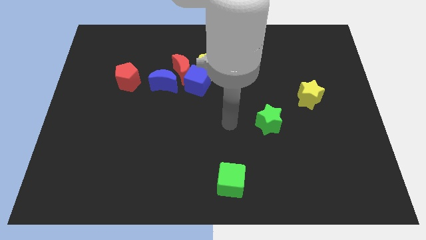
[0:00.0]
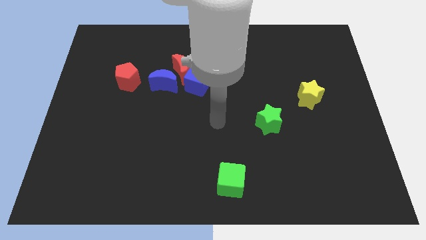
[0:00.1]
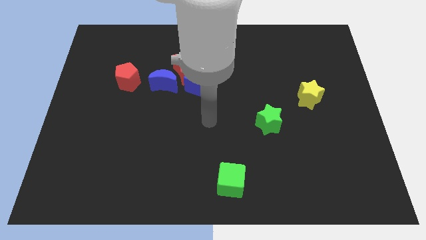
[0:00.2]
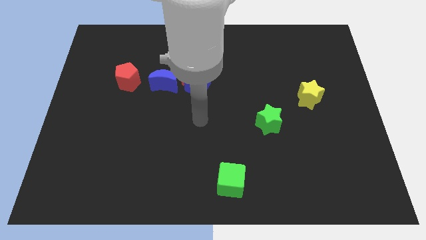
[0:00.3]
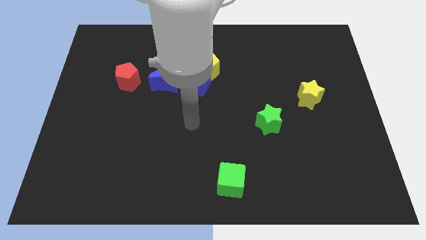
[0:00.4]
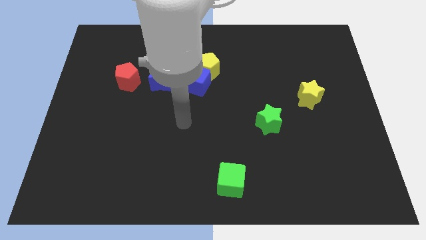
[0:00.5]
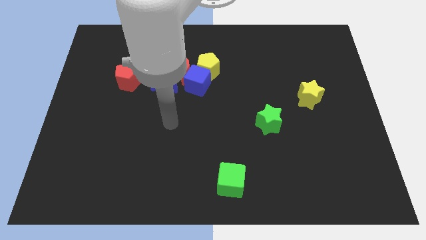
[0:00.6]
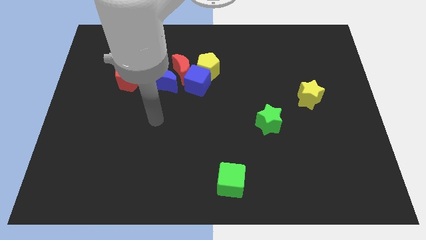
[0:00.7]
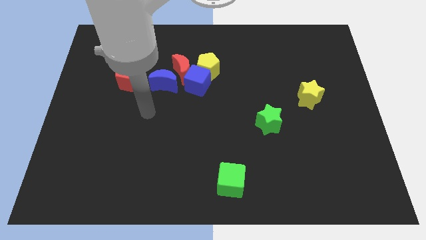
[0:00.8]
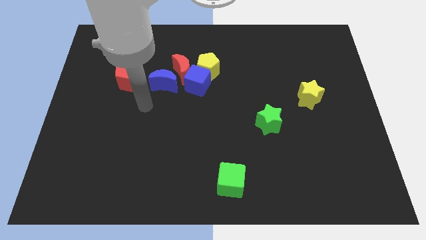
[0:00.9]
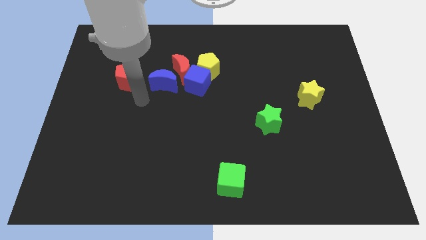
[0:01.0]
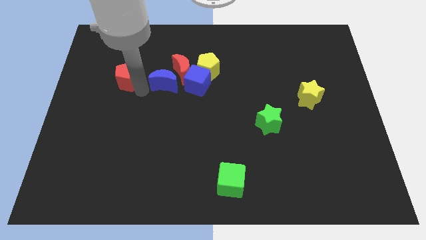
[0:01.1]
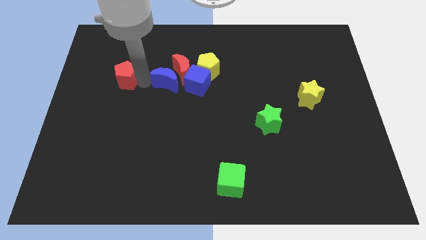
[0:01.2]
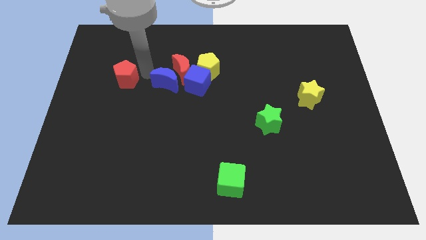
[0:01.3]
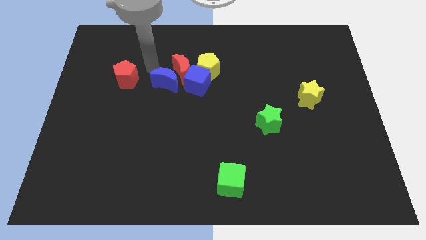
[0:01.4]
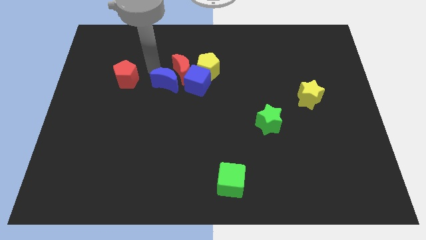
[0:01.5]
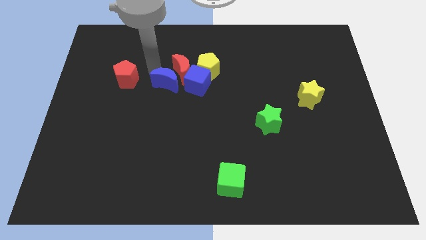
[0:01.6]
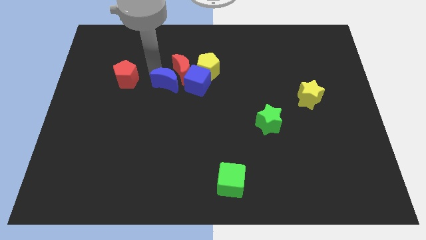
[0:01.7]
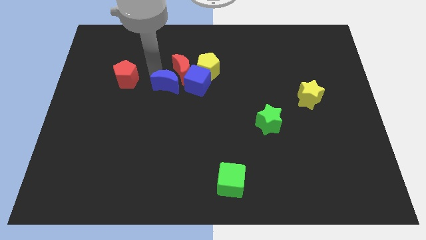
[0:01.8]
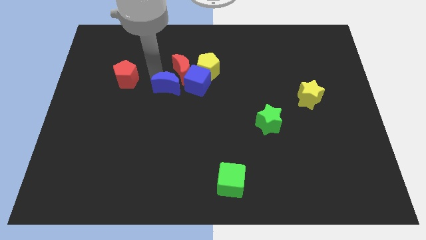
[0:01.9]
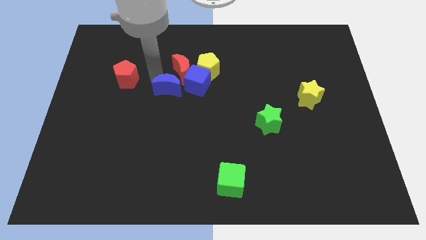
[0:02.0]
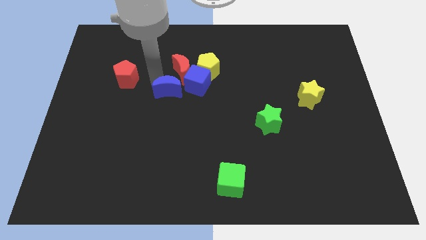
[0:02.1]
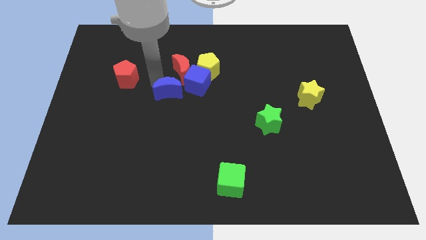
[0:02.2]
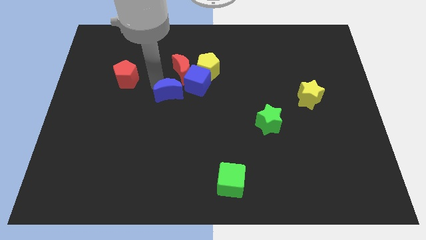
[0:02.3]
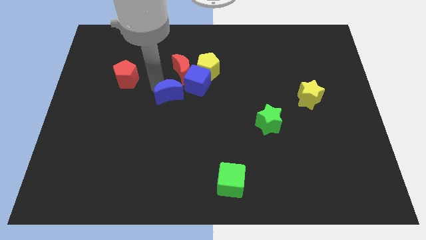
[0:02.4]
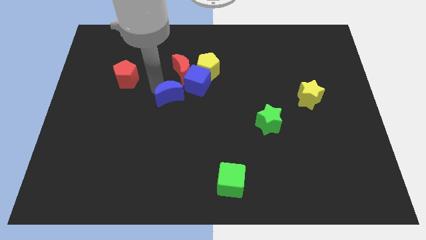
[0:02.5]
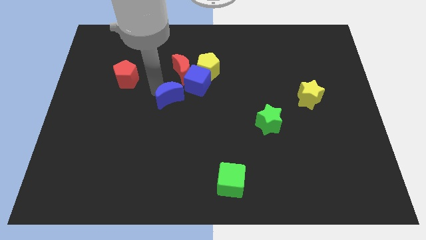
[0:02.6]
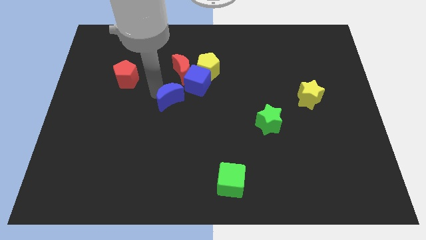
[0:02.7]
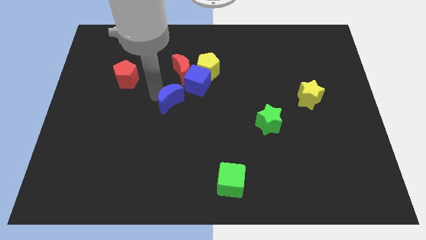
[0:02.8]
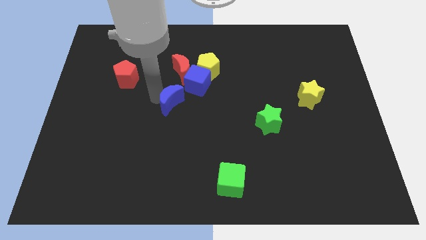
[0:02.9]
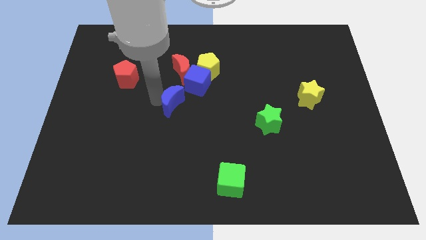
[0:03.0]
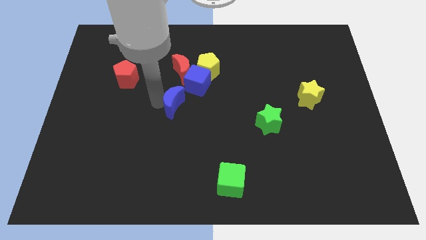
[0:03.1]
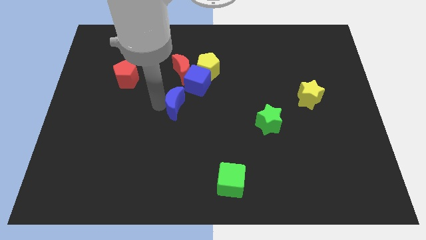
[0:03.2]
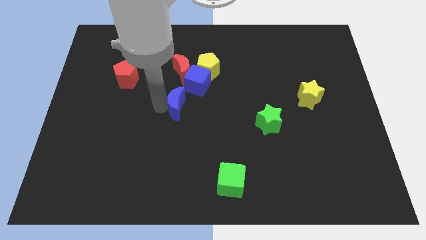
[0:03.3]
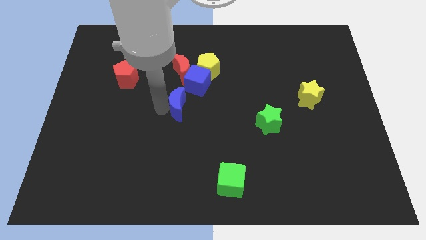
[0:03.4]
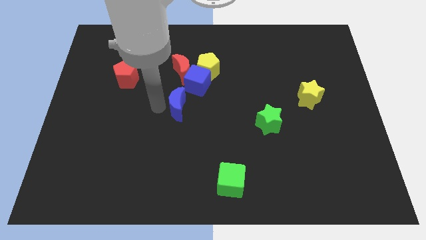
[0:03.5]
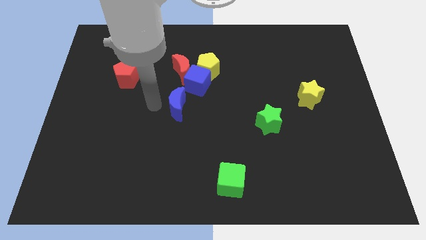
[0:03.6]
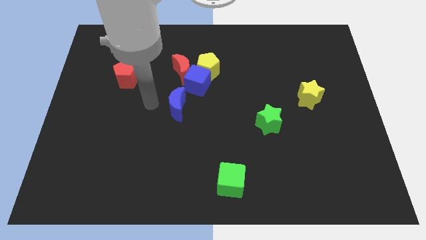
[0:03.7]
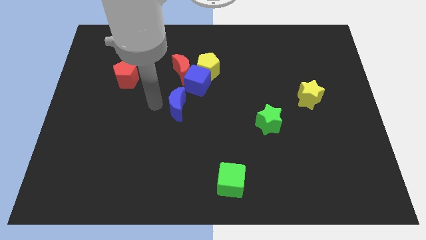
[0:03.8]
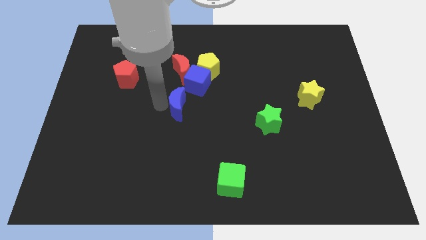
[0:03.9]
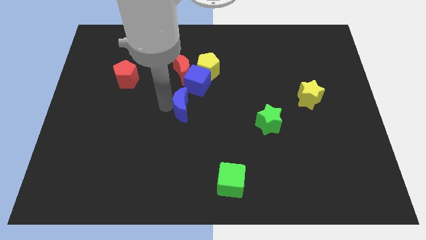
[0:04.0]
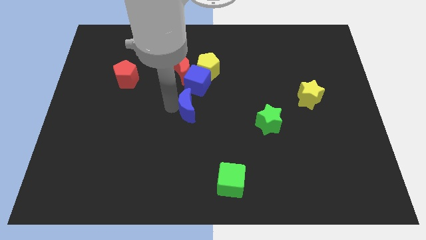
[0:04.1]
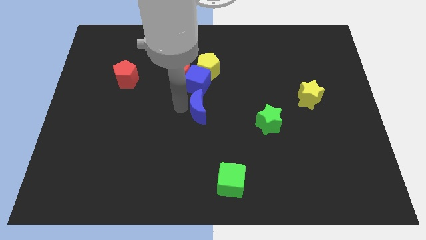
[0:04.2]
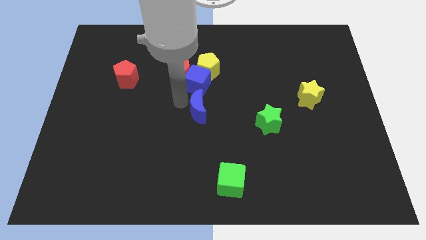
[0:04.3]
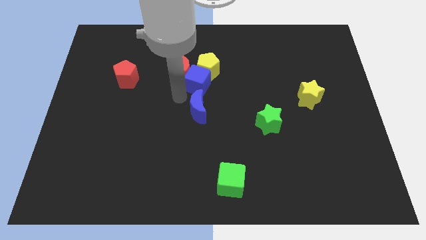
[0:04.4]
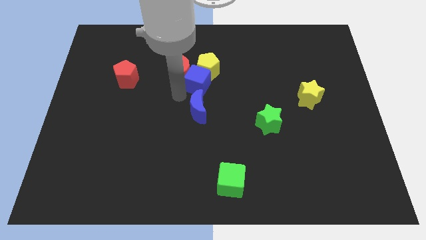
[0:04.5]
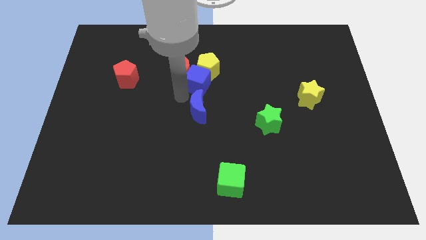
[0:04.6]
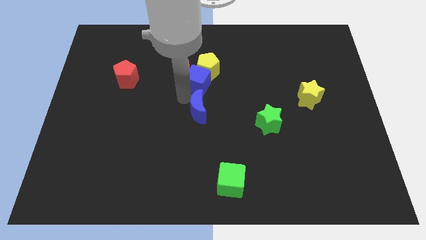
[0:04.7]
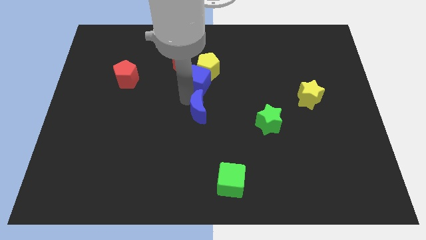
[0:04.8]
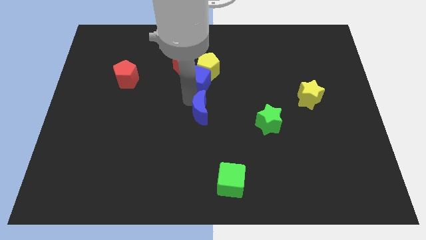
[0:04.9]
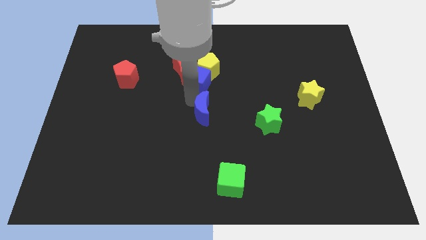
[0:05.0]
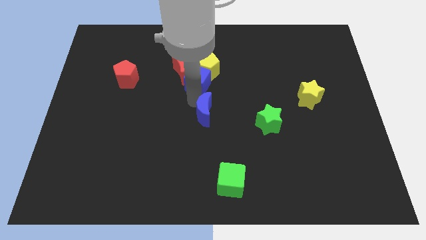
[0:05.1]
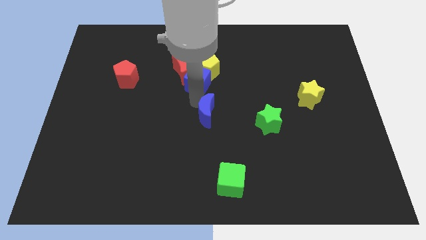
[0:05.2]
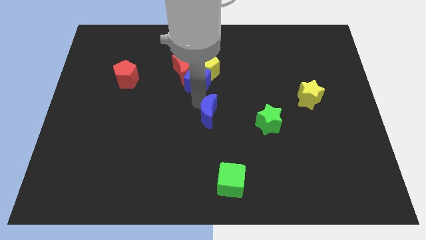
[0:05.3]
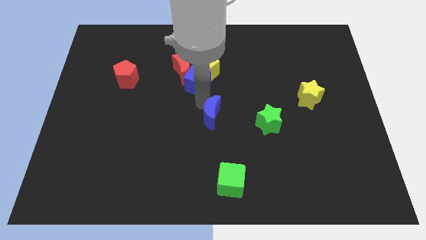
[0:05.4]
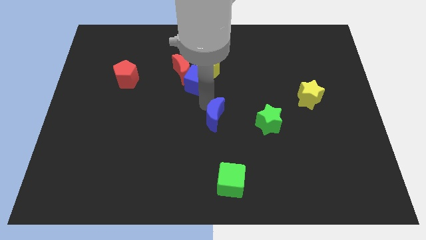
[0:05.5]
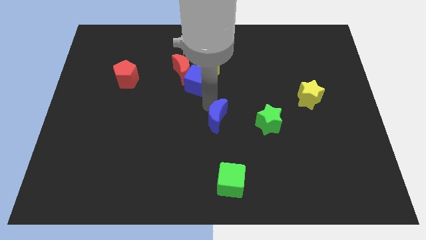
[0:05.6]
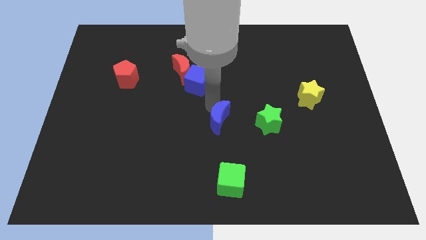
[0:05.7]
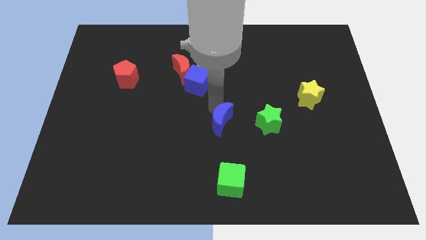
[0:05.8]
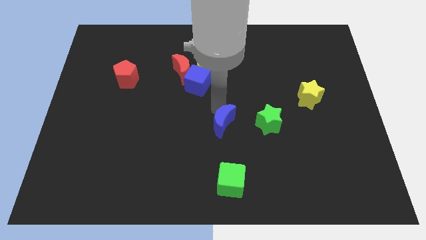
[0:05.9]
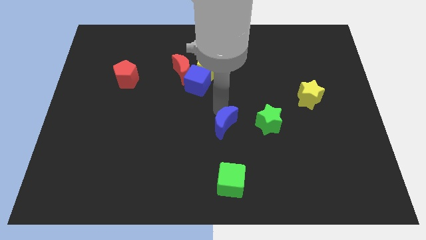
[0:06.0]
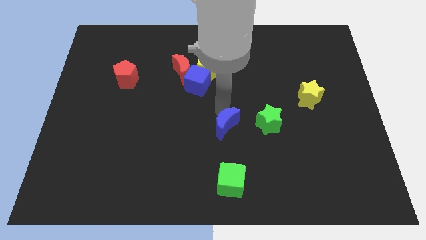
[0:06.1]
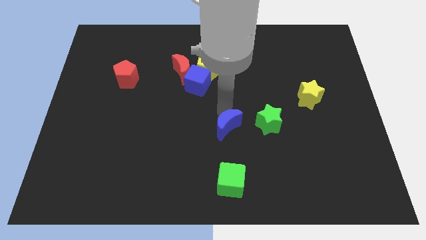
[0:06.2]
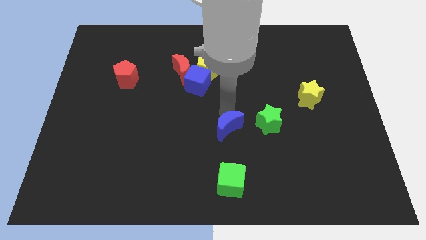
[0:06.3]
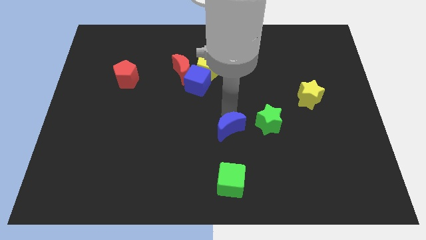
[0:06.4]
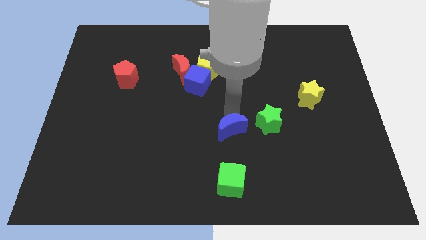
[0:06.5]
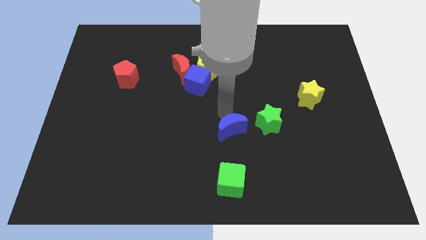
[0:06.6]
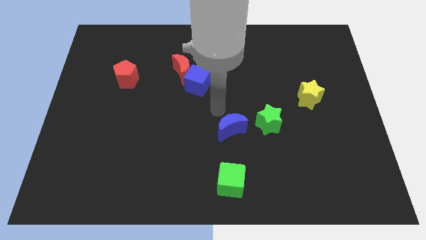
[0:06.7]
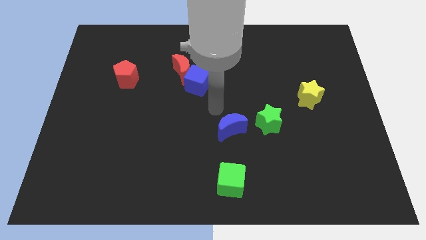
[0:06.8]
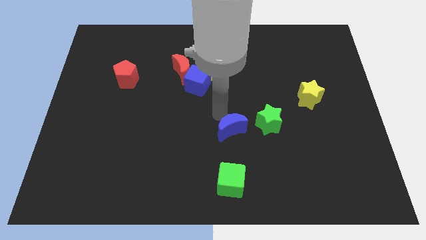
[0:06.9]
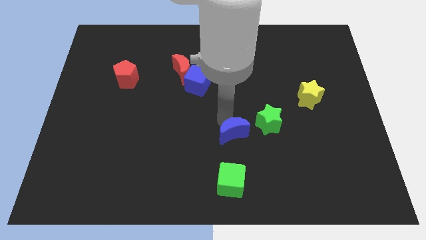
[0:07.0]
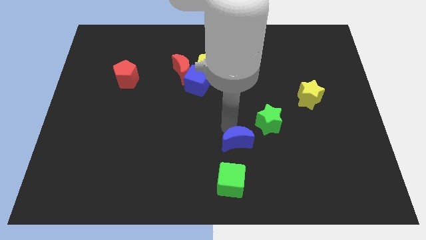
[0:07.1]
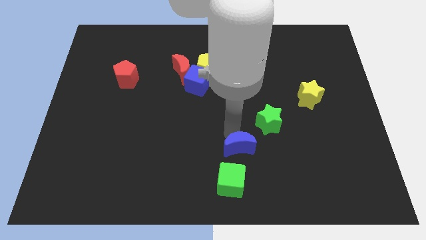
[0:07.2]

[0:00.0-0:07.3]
push the blue moon diagonally up and to the right of the green cube
